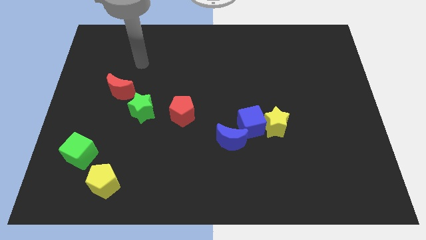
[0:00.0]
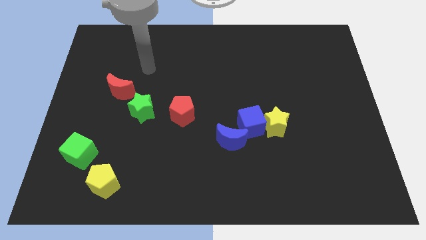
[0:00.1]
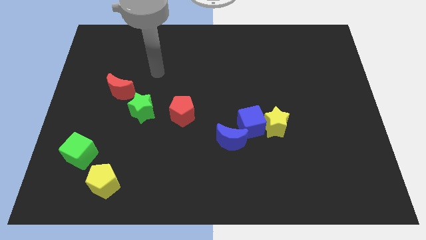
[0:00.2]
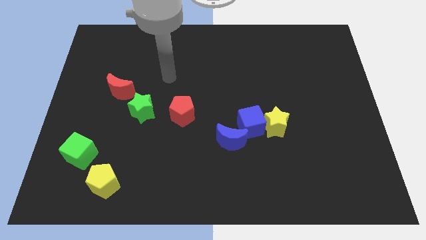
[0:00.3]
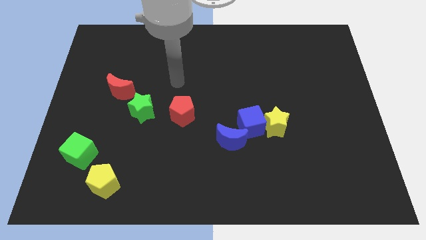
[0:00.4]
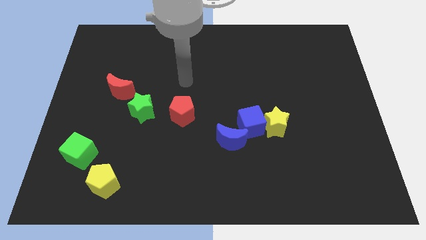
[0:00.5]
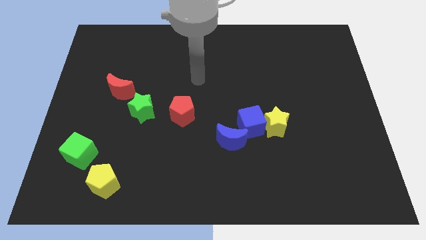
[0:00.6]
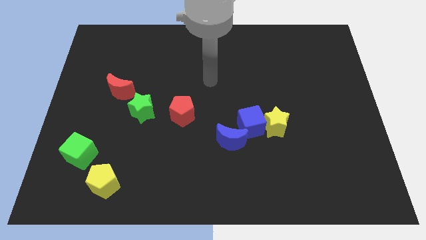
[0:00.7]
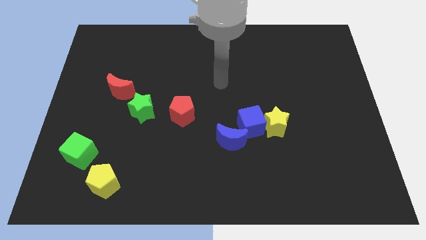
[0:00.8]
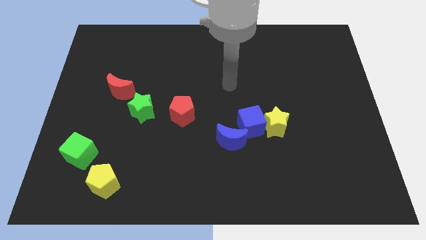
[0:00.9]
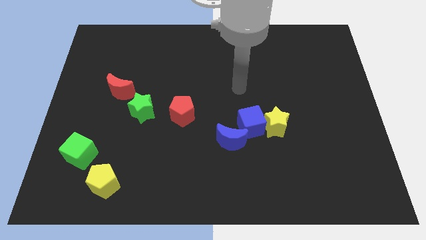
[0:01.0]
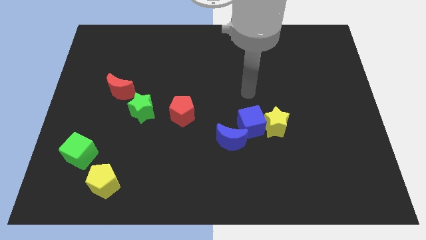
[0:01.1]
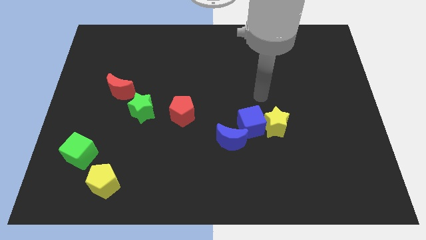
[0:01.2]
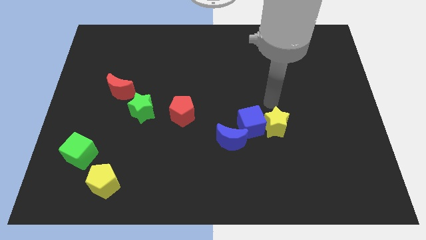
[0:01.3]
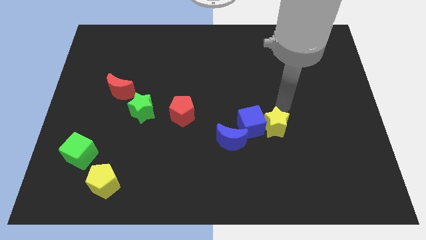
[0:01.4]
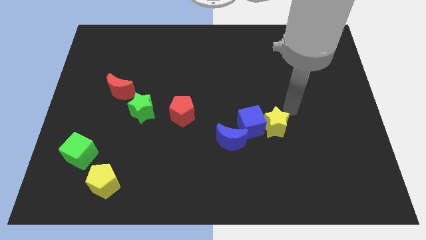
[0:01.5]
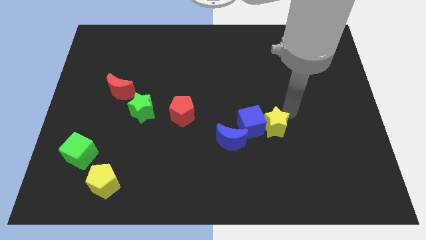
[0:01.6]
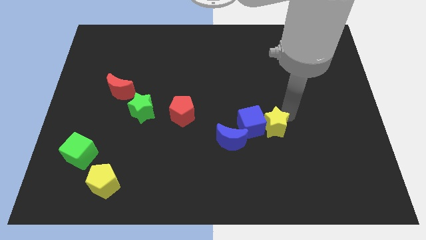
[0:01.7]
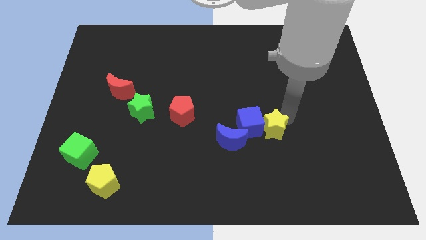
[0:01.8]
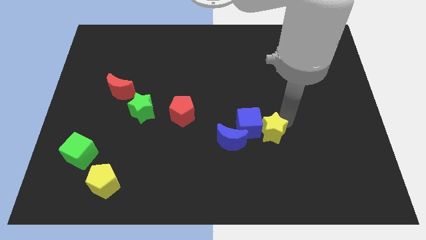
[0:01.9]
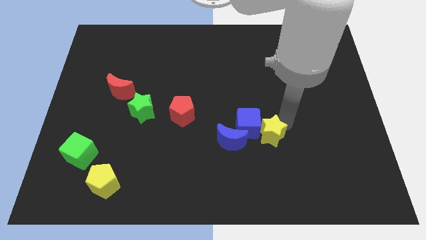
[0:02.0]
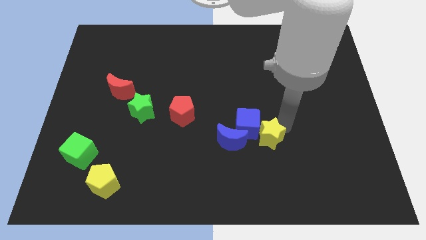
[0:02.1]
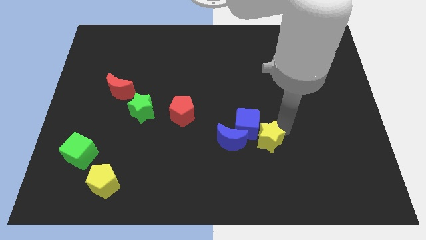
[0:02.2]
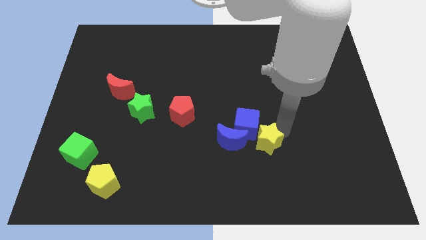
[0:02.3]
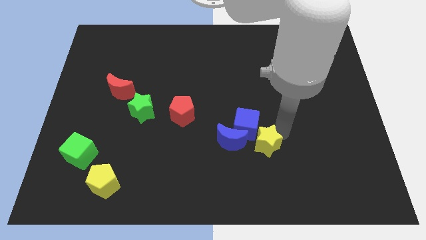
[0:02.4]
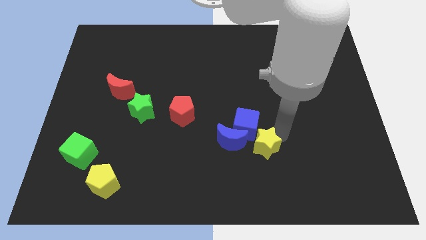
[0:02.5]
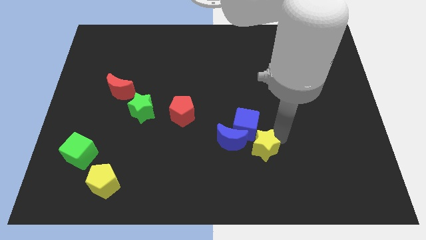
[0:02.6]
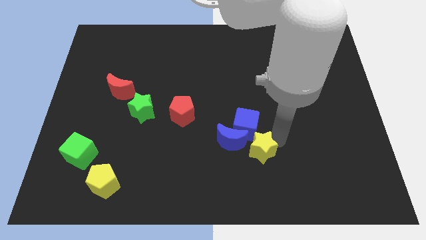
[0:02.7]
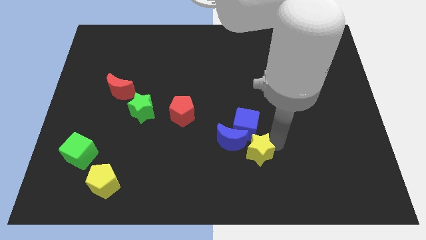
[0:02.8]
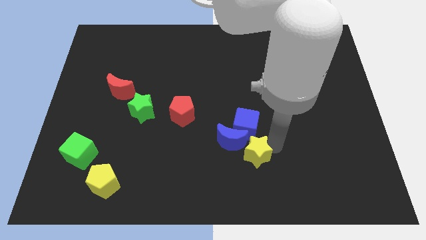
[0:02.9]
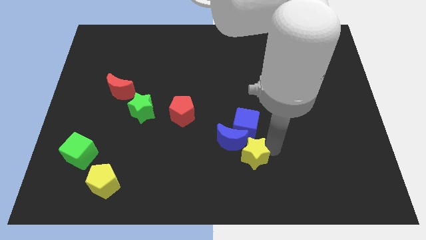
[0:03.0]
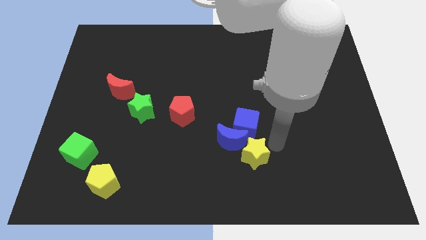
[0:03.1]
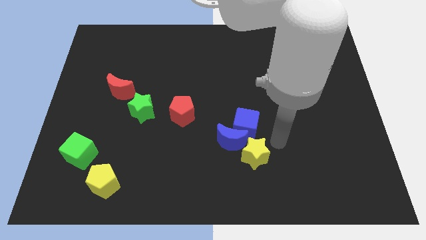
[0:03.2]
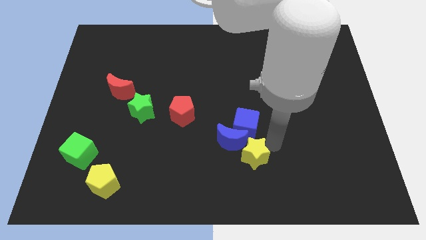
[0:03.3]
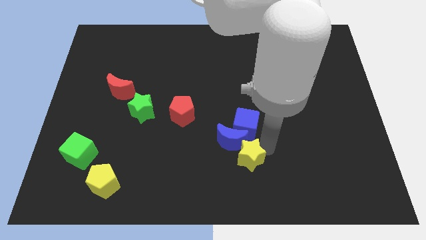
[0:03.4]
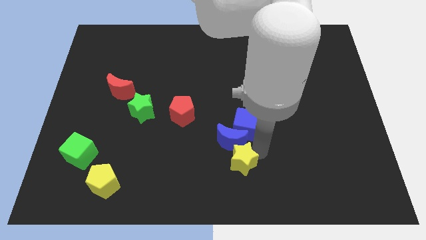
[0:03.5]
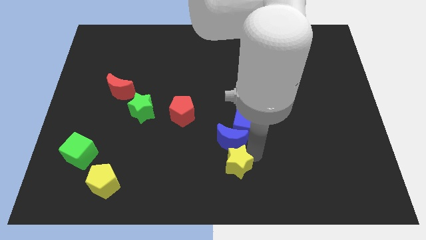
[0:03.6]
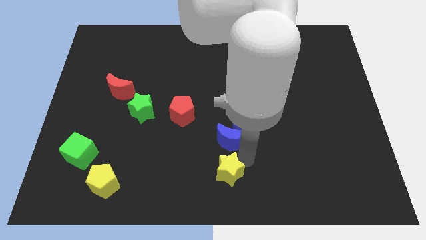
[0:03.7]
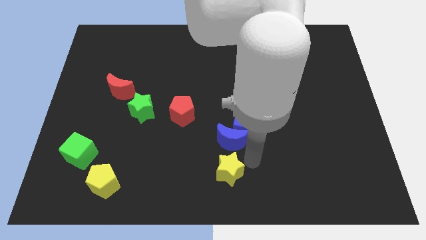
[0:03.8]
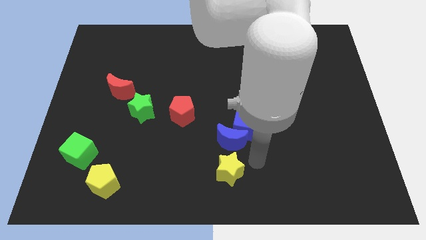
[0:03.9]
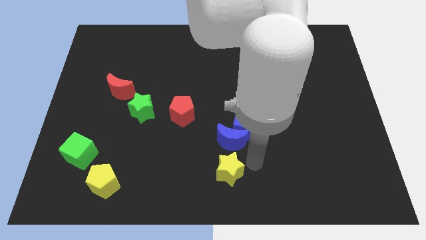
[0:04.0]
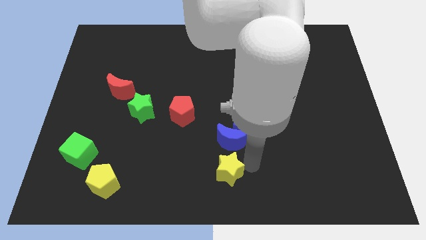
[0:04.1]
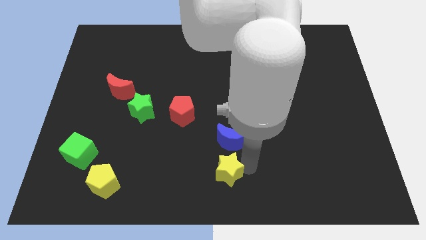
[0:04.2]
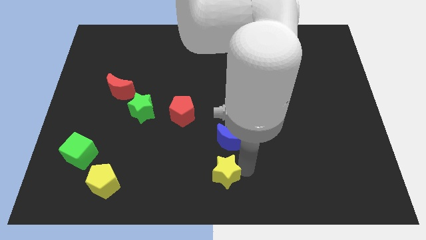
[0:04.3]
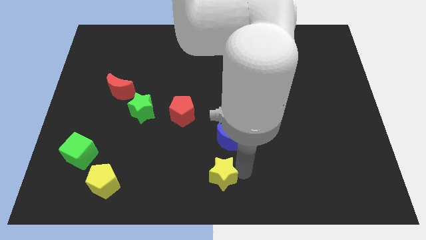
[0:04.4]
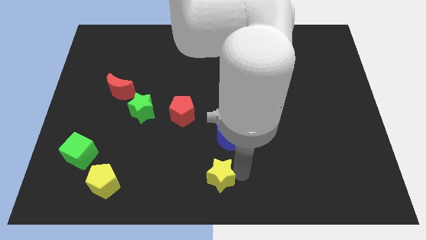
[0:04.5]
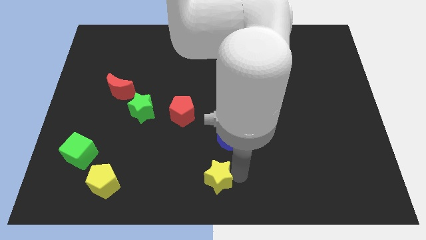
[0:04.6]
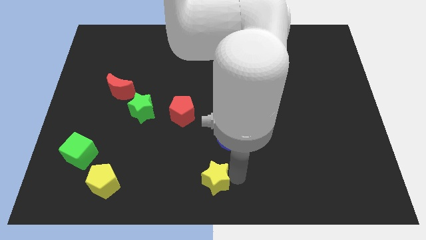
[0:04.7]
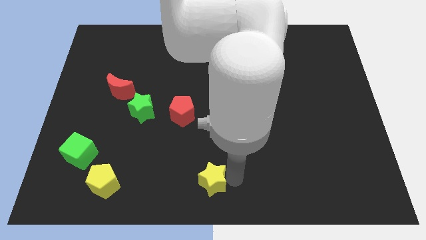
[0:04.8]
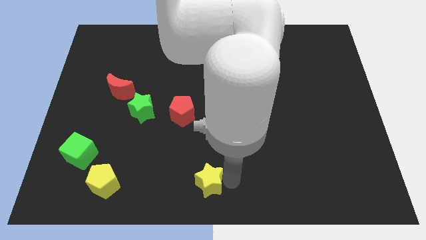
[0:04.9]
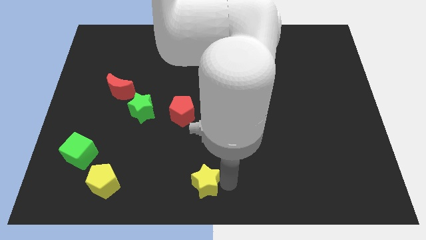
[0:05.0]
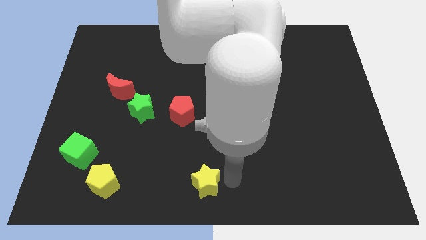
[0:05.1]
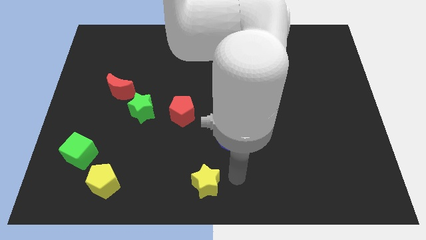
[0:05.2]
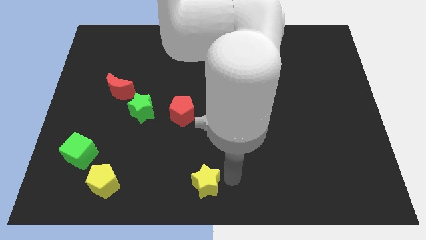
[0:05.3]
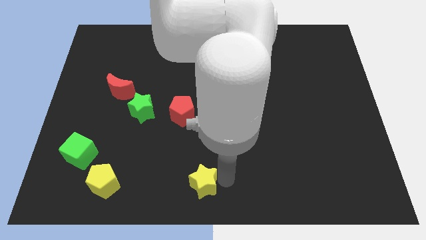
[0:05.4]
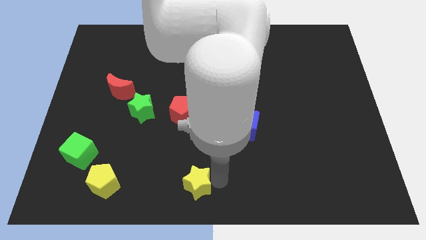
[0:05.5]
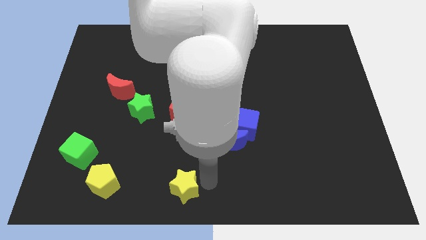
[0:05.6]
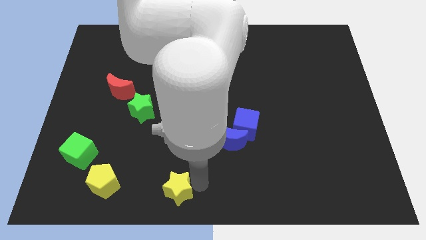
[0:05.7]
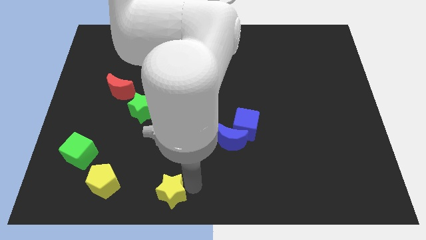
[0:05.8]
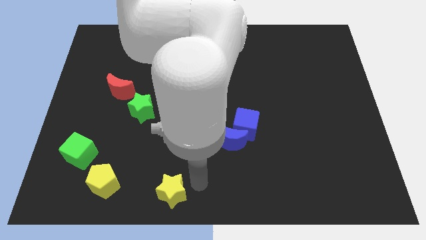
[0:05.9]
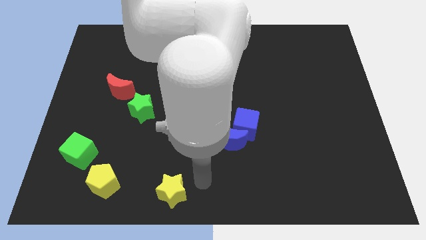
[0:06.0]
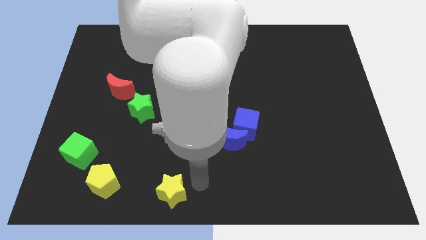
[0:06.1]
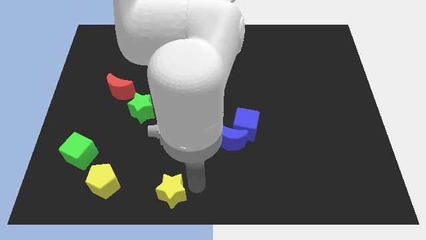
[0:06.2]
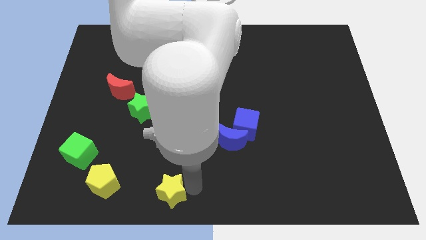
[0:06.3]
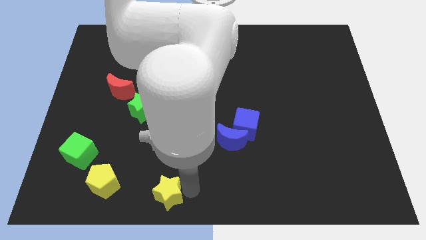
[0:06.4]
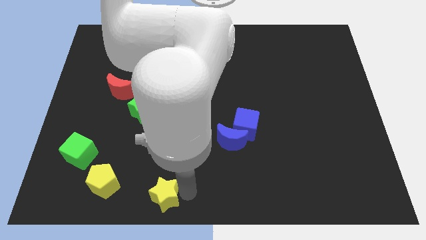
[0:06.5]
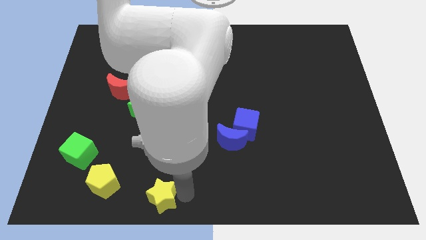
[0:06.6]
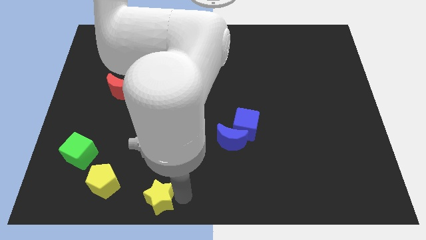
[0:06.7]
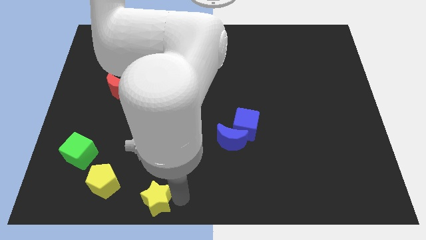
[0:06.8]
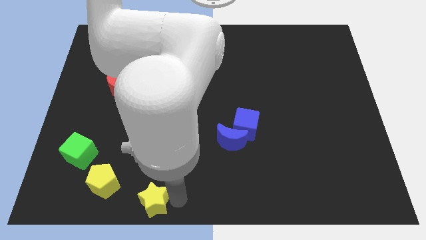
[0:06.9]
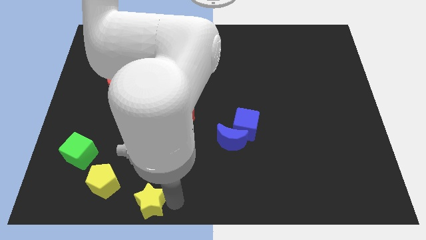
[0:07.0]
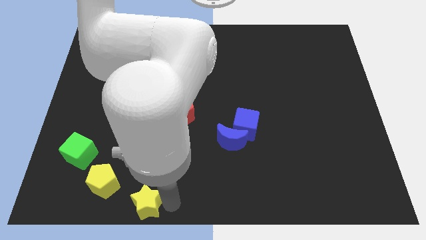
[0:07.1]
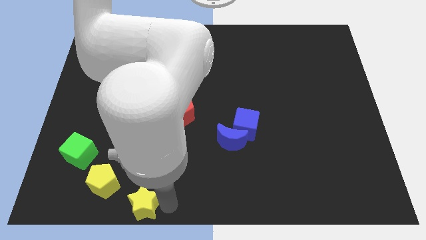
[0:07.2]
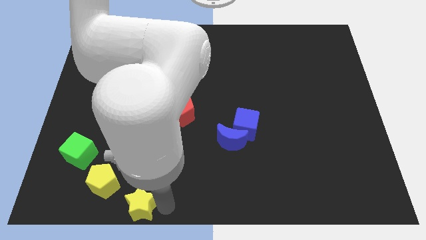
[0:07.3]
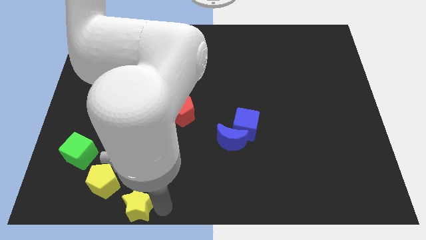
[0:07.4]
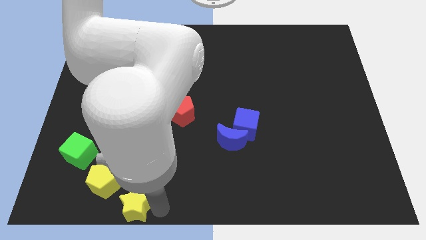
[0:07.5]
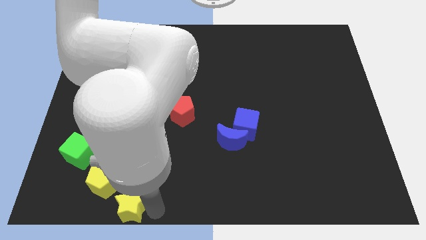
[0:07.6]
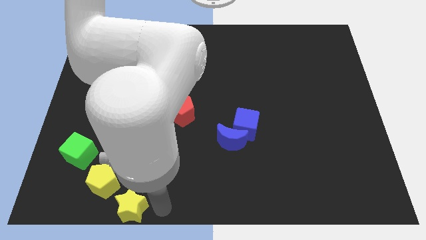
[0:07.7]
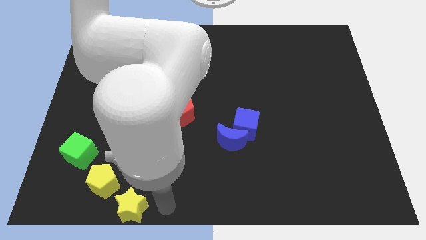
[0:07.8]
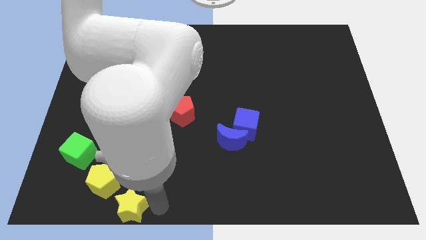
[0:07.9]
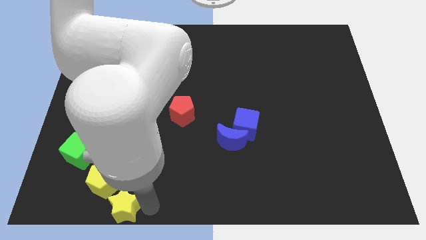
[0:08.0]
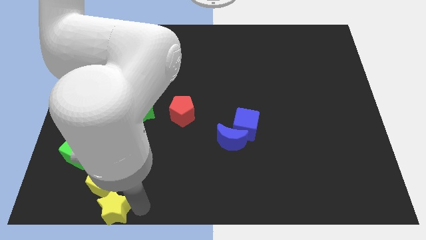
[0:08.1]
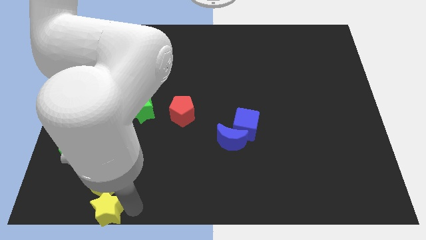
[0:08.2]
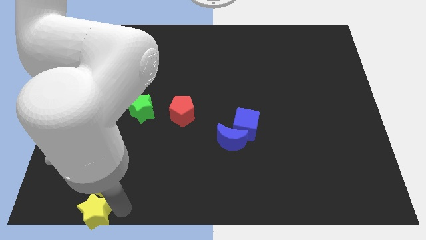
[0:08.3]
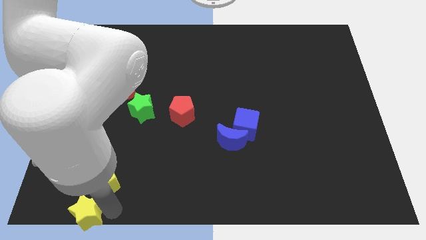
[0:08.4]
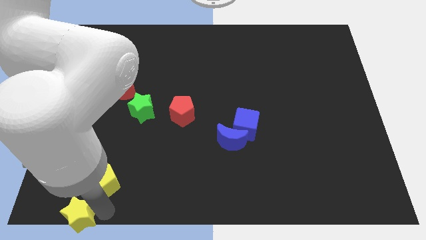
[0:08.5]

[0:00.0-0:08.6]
put the yellow star to the bottom left corner
